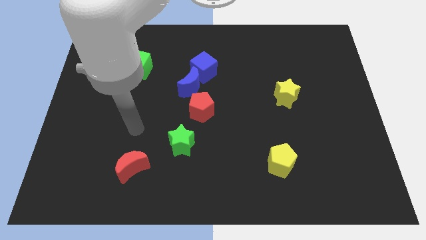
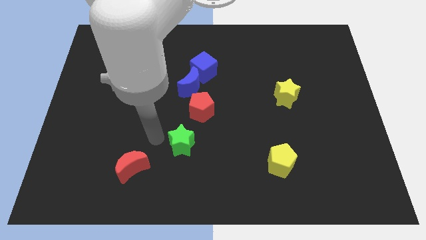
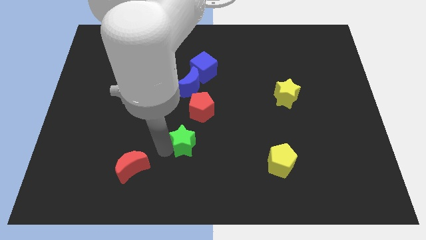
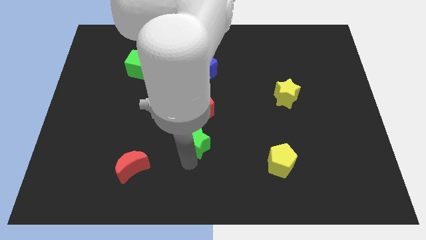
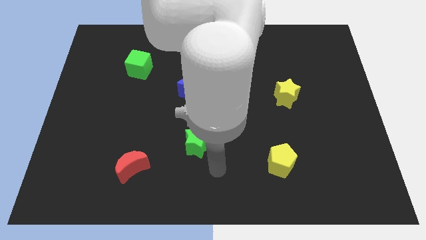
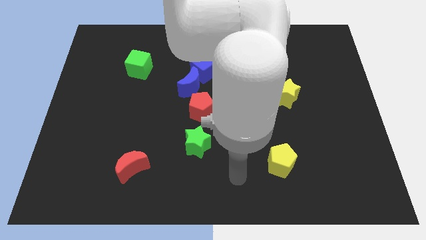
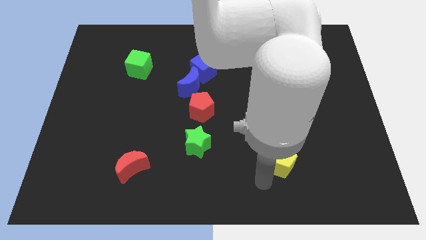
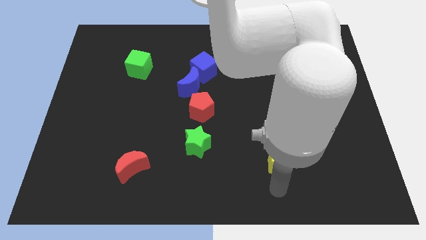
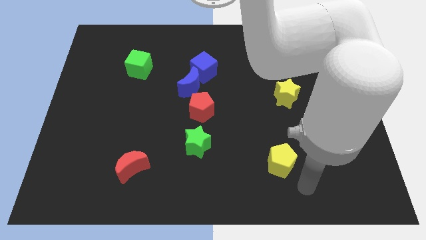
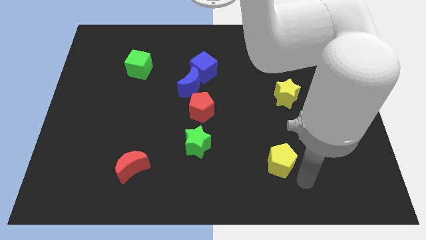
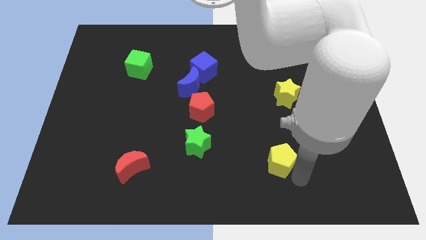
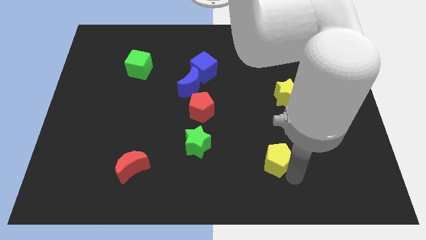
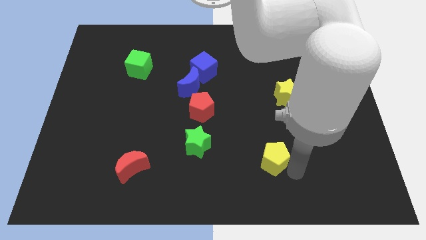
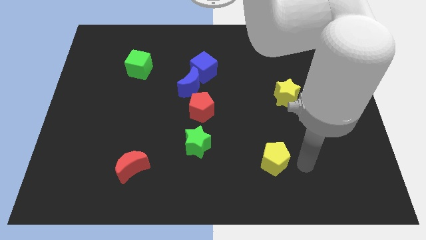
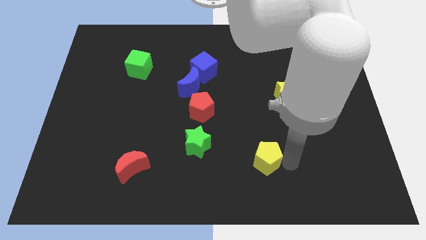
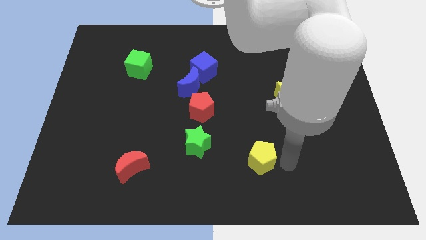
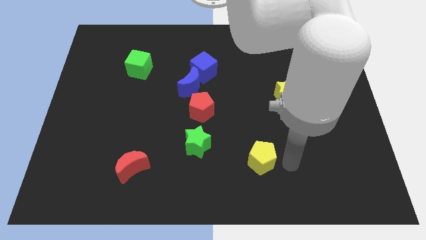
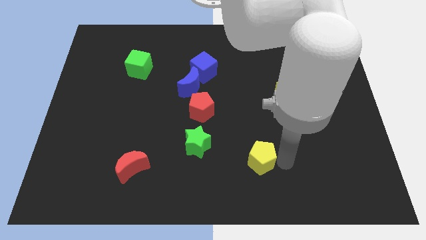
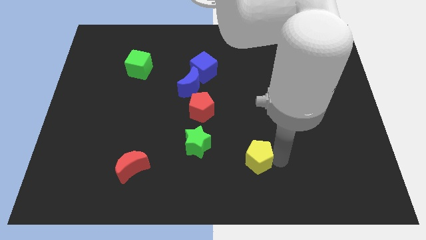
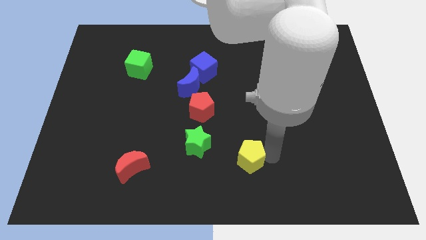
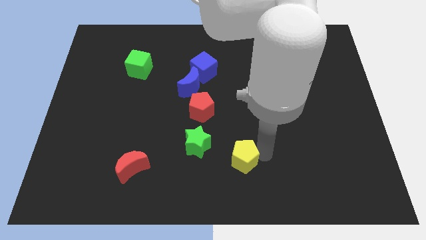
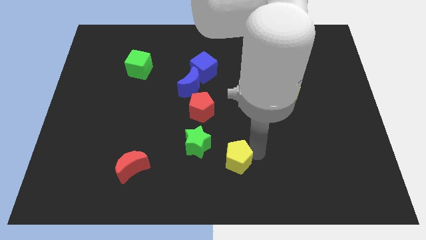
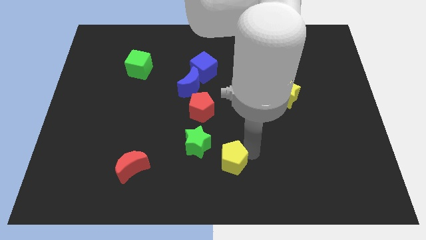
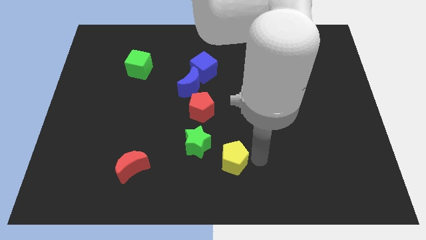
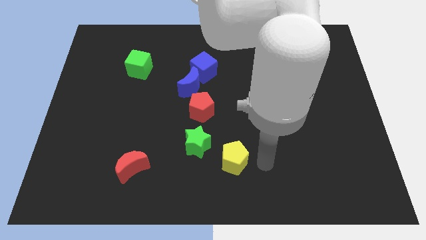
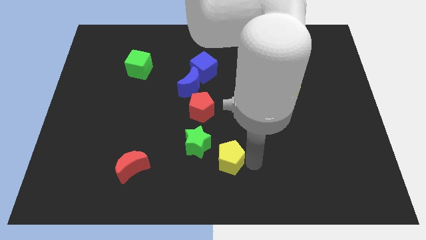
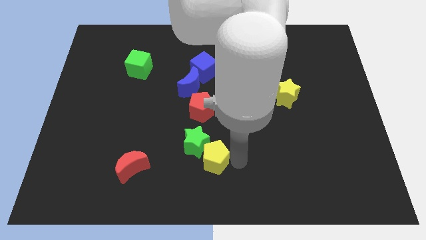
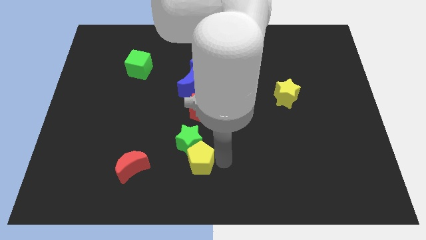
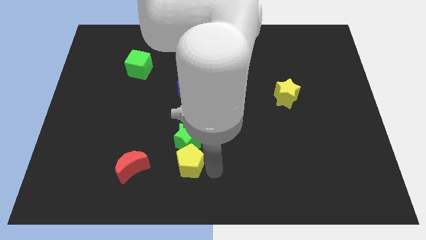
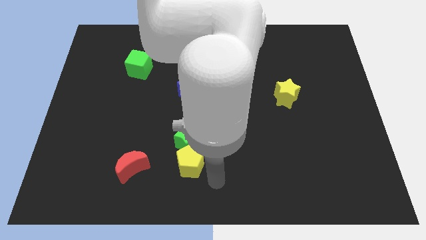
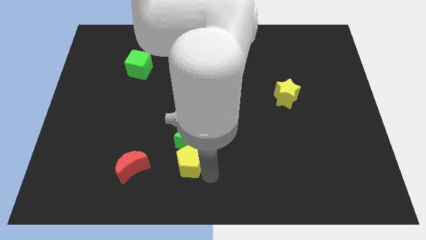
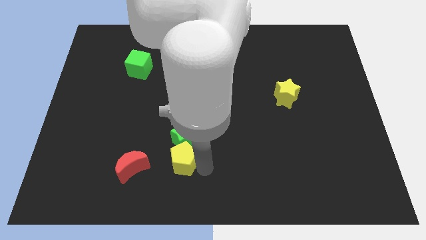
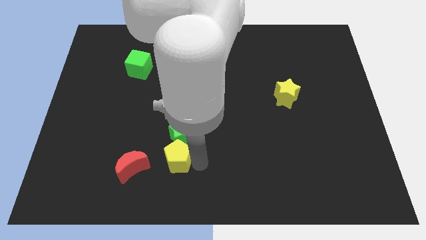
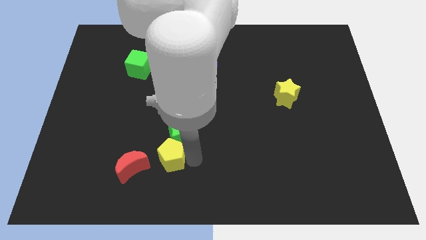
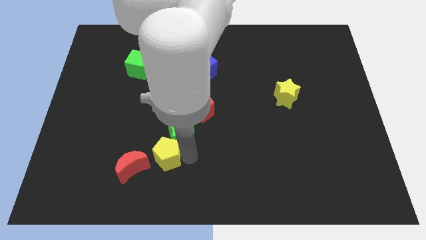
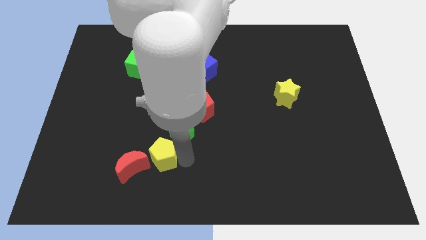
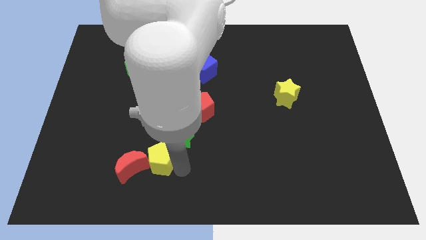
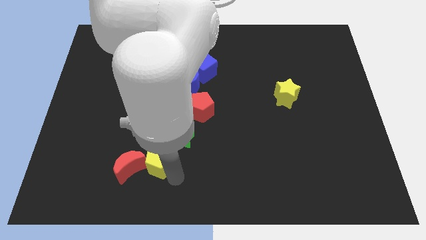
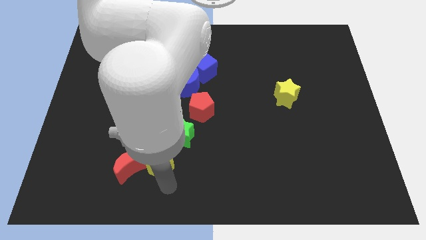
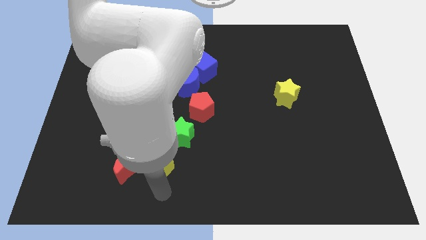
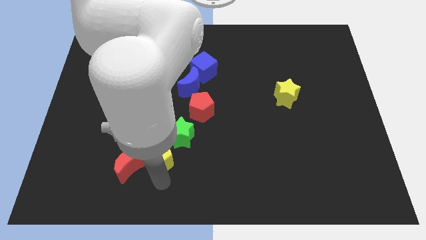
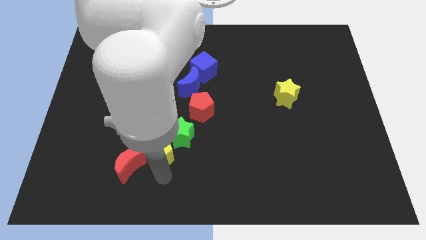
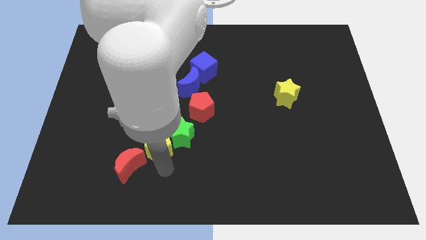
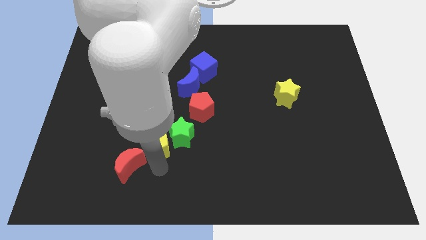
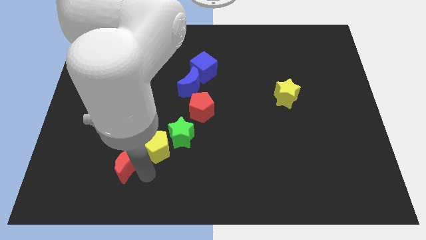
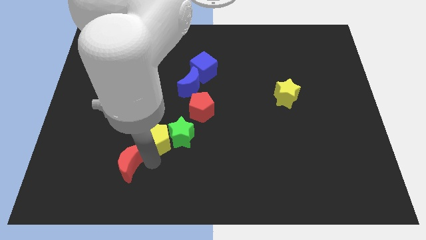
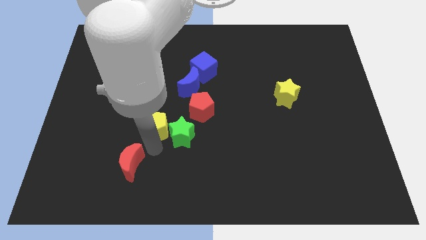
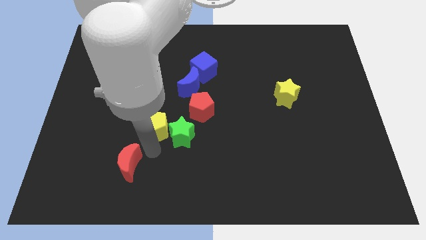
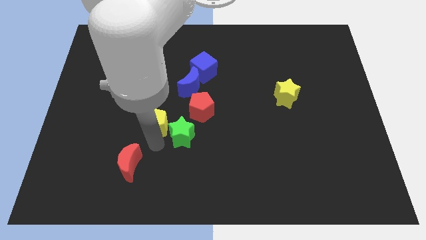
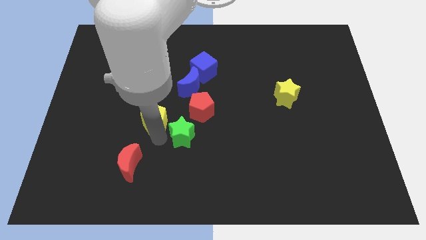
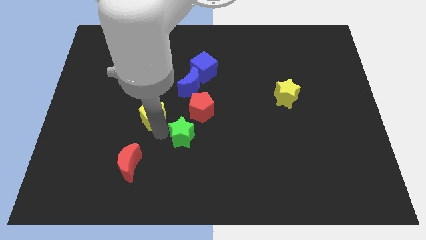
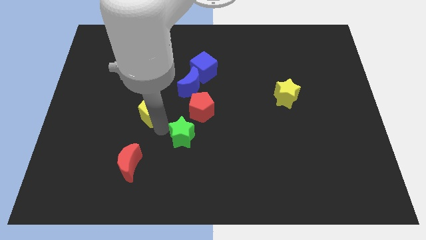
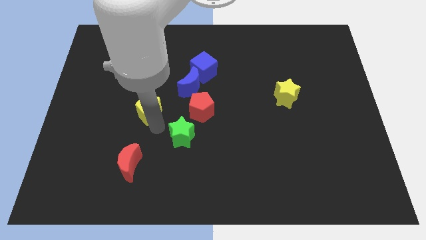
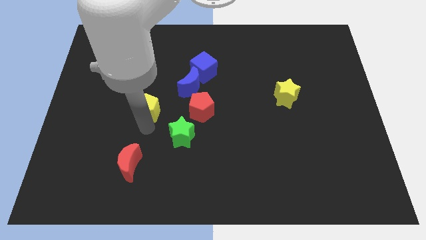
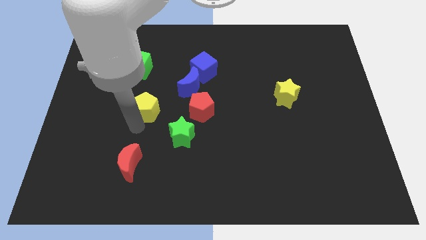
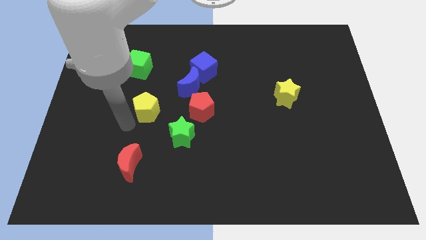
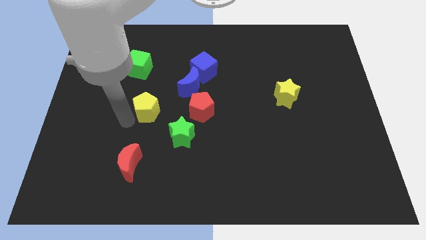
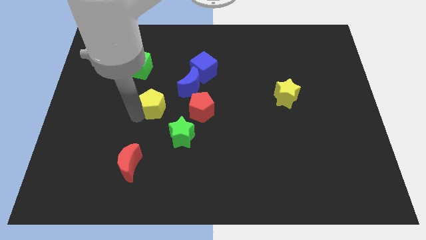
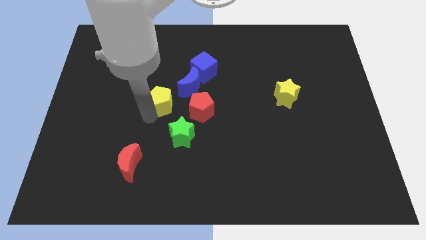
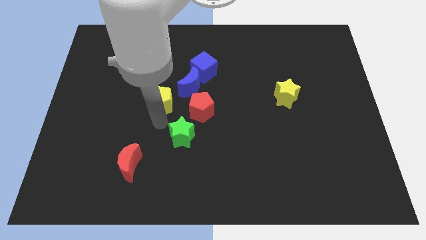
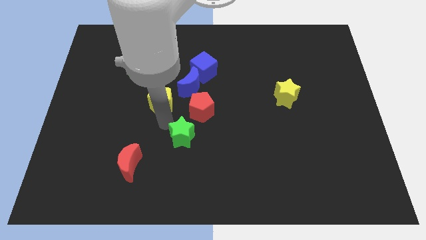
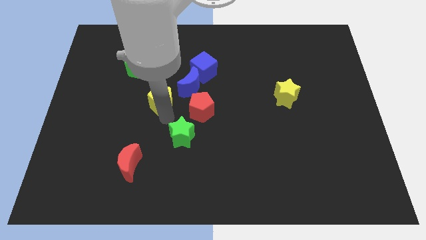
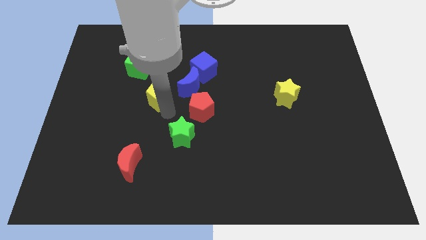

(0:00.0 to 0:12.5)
slide the yellow pentagon to the bottom right of the green cube

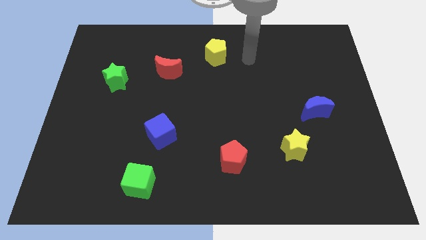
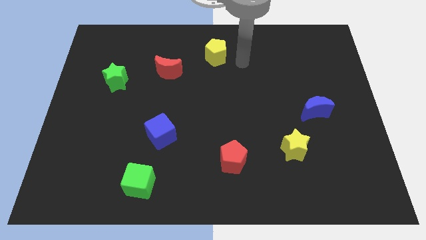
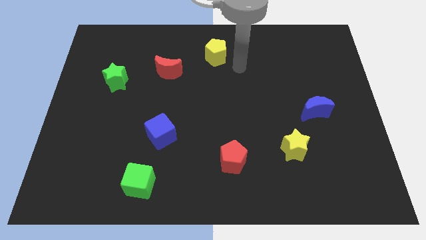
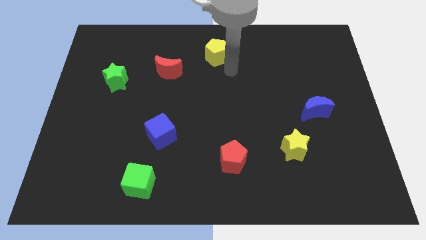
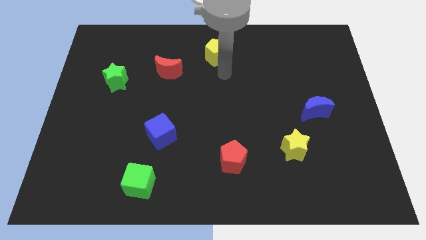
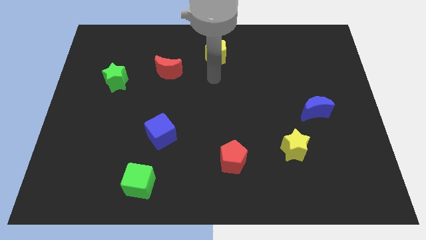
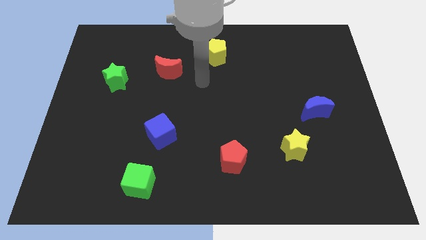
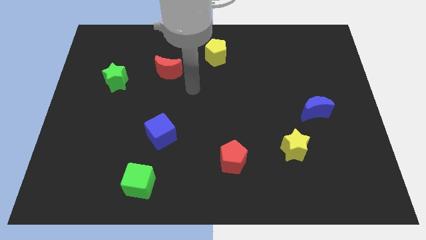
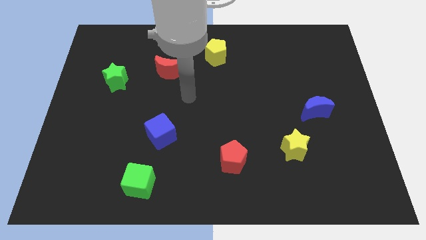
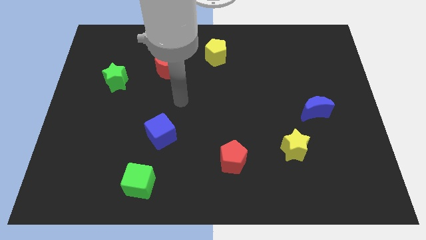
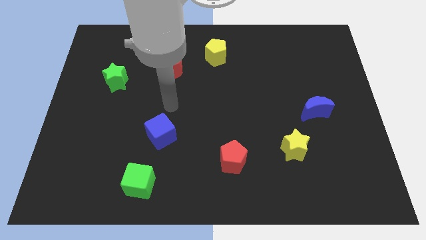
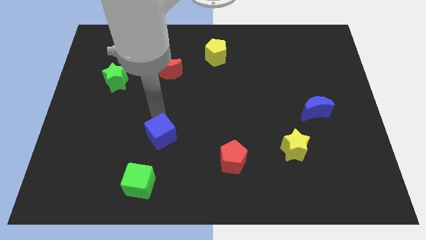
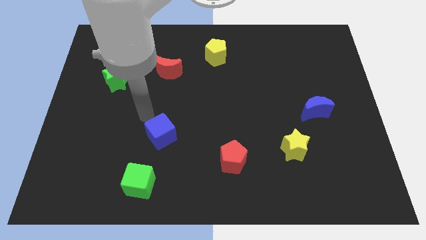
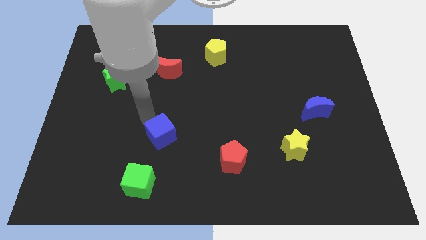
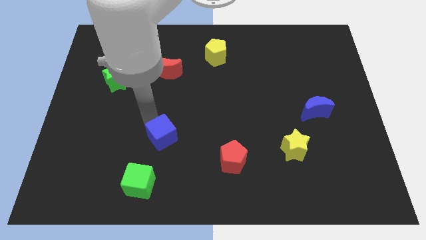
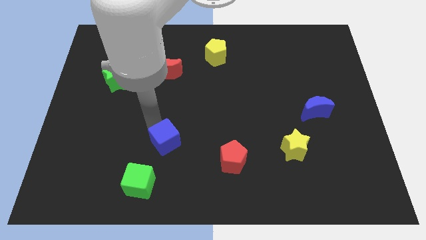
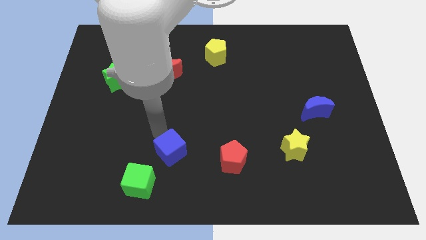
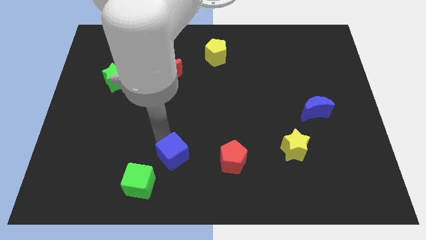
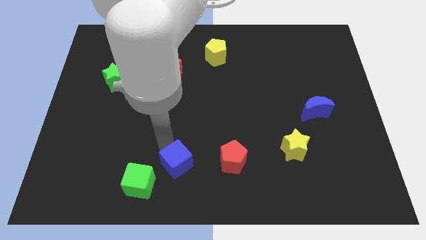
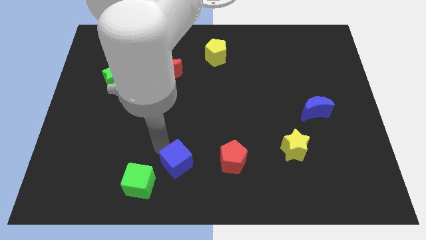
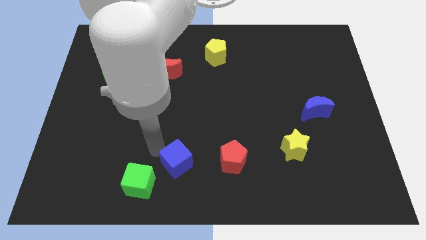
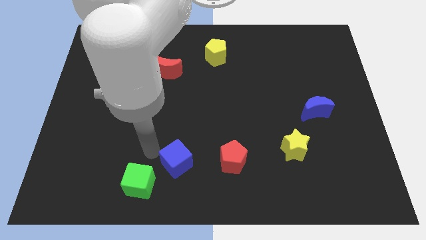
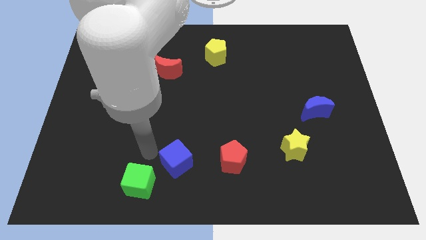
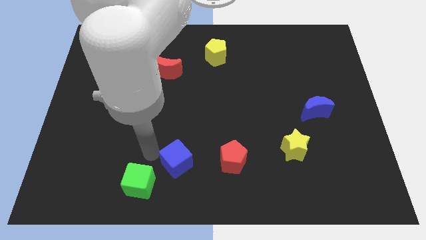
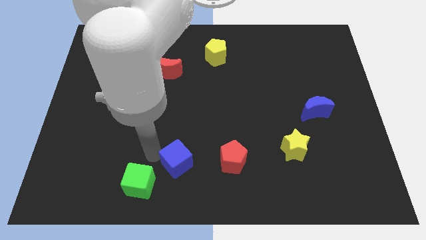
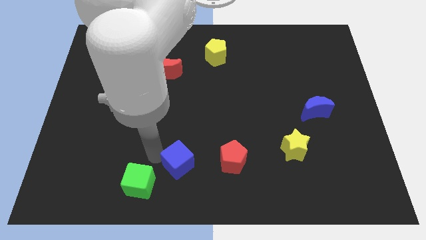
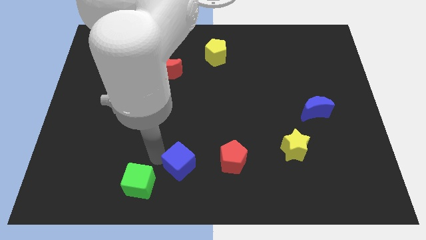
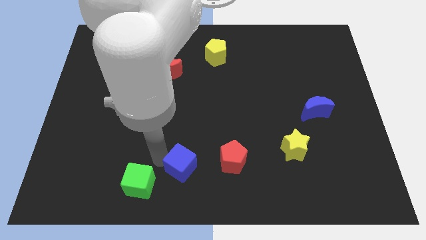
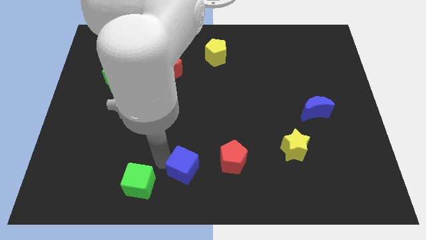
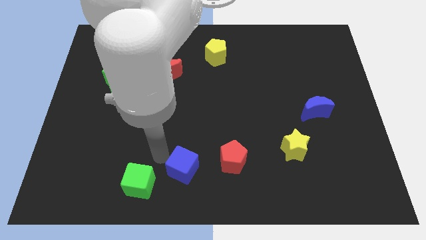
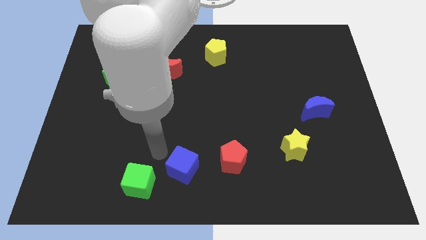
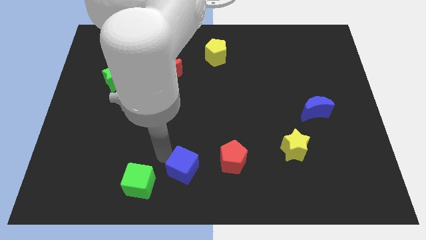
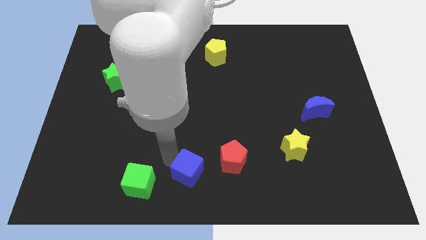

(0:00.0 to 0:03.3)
move the blue cube to the bottom left side of the red pentagon
